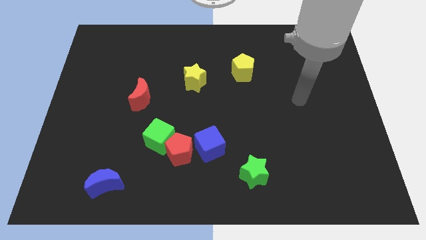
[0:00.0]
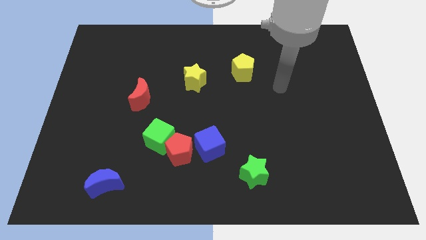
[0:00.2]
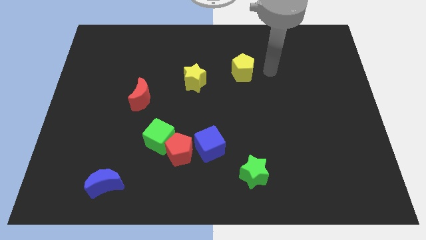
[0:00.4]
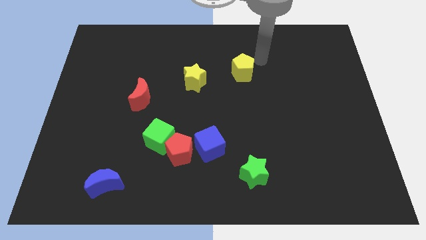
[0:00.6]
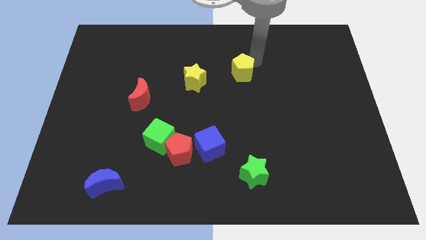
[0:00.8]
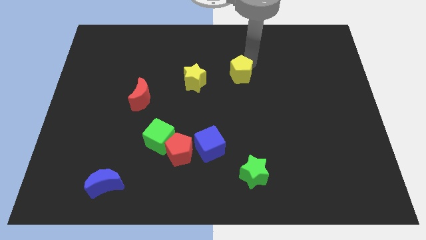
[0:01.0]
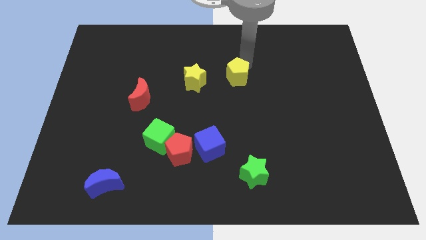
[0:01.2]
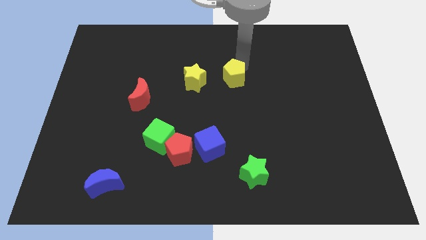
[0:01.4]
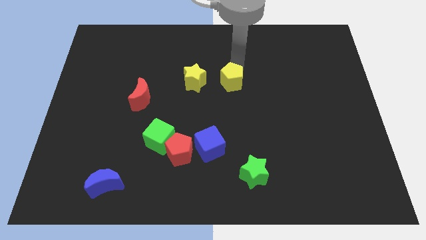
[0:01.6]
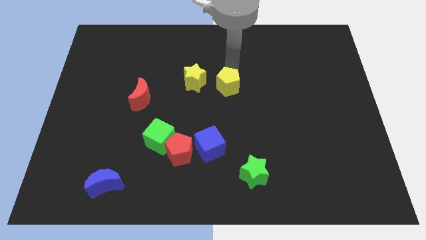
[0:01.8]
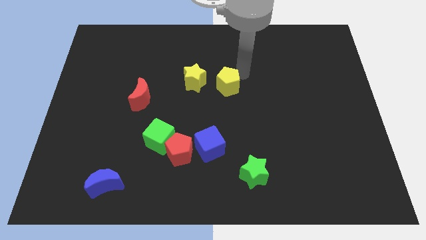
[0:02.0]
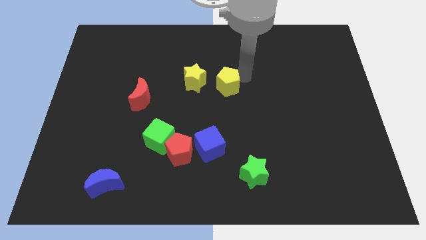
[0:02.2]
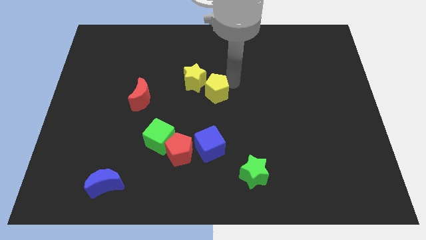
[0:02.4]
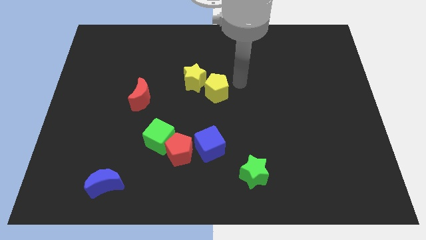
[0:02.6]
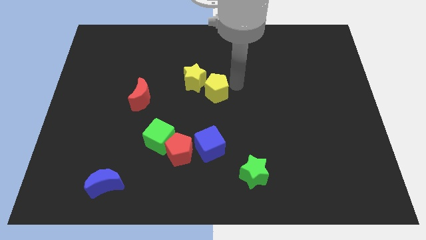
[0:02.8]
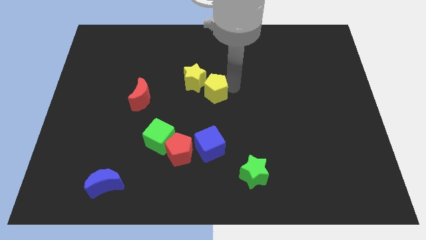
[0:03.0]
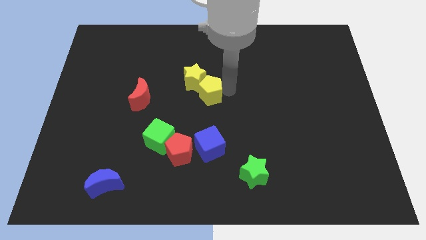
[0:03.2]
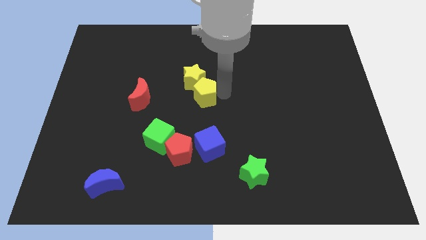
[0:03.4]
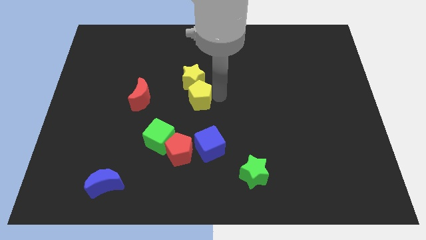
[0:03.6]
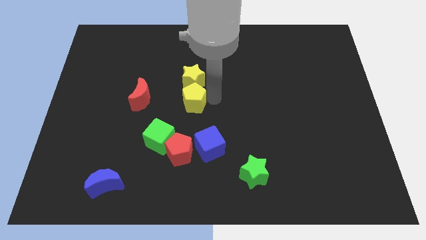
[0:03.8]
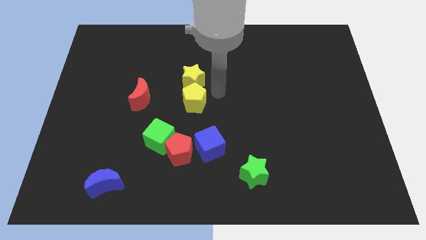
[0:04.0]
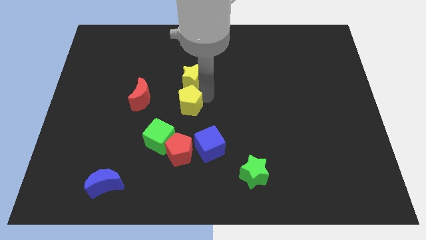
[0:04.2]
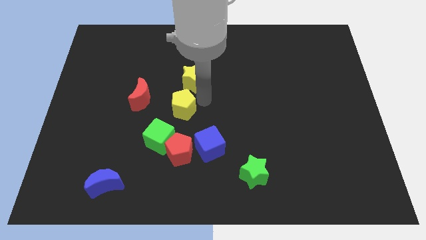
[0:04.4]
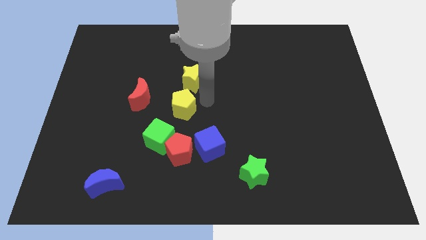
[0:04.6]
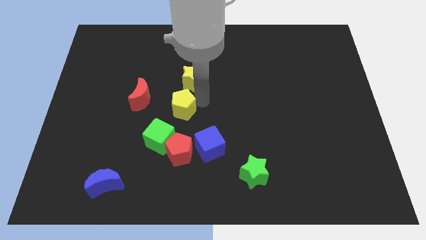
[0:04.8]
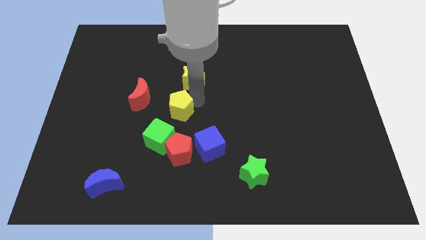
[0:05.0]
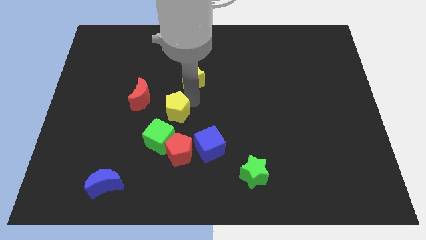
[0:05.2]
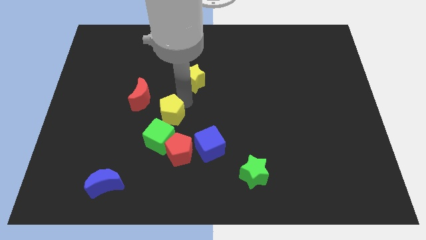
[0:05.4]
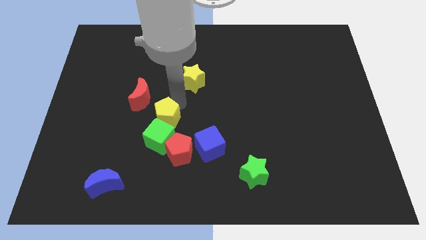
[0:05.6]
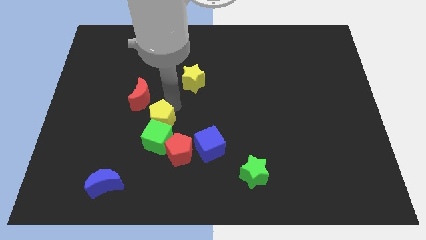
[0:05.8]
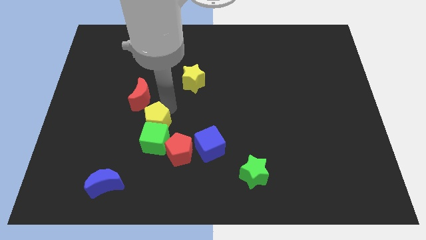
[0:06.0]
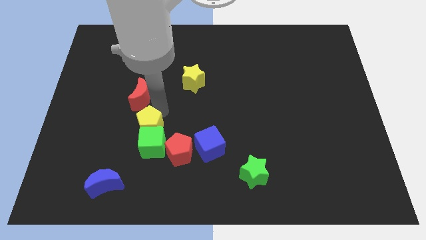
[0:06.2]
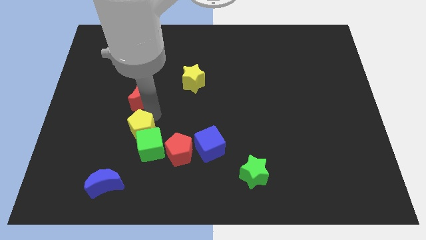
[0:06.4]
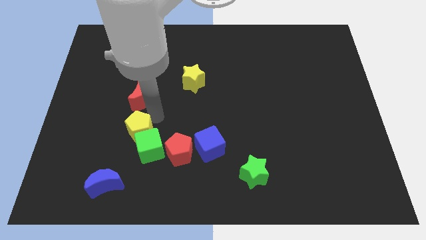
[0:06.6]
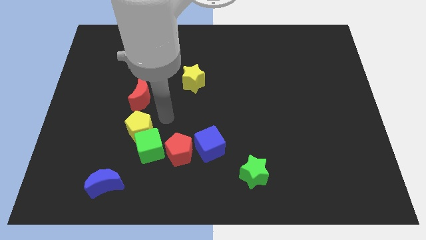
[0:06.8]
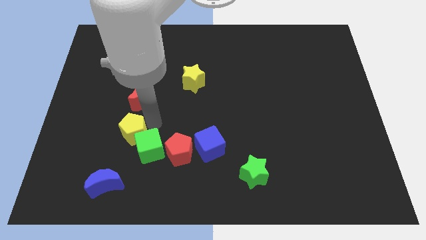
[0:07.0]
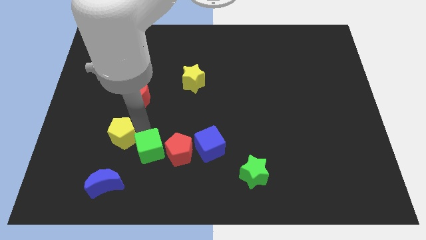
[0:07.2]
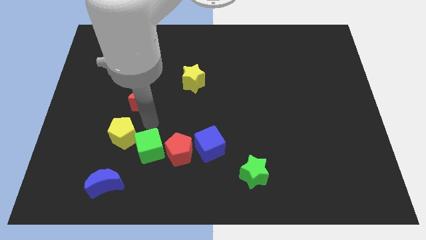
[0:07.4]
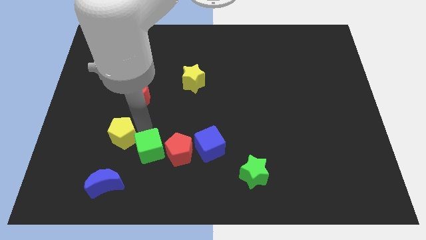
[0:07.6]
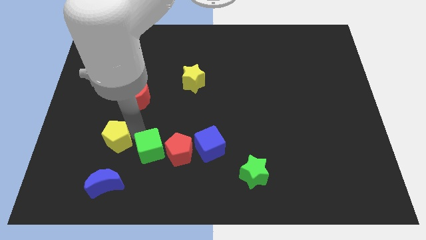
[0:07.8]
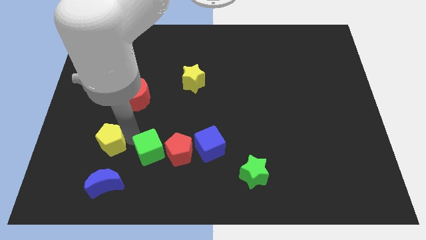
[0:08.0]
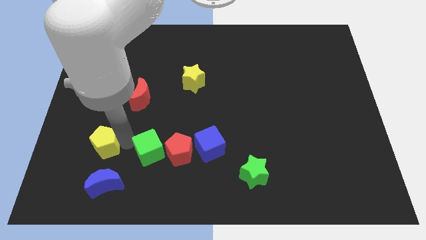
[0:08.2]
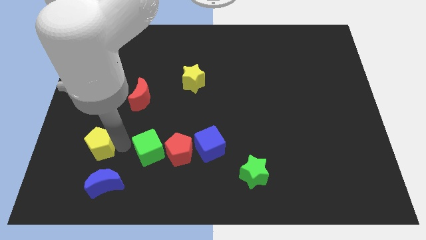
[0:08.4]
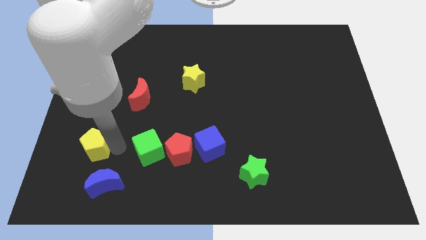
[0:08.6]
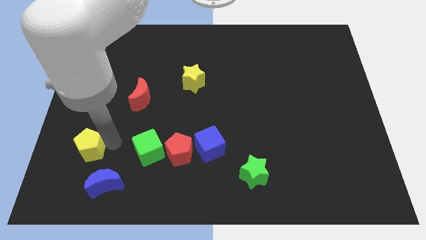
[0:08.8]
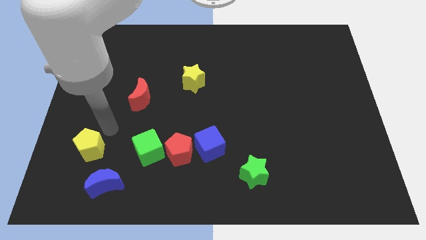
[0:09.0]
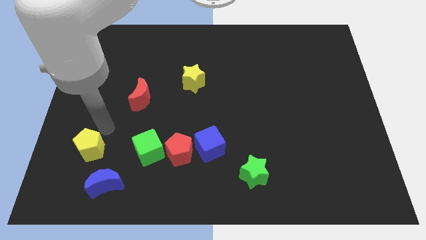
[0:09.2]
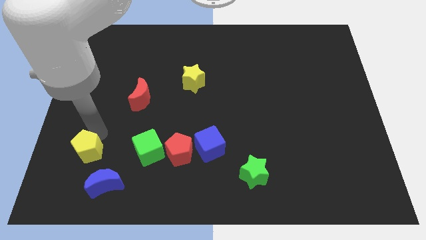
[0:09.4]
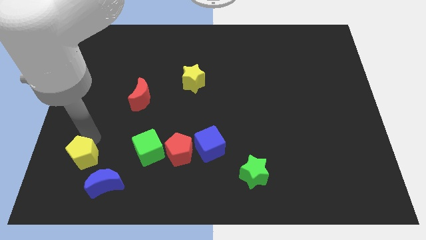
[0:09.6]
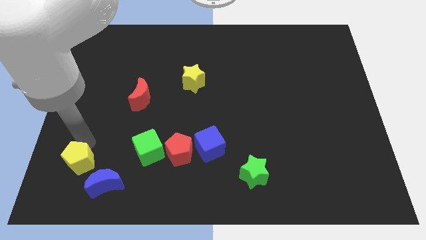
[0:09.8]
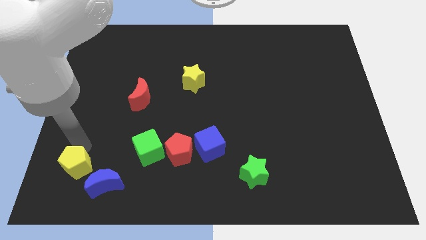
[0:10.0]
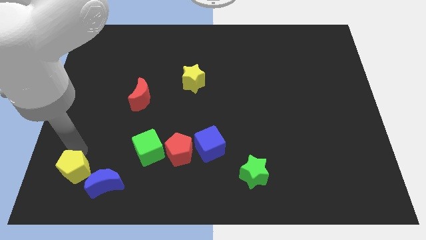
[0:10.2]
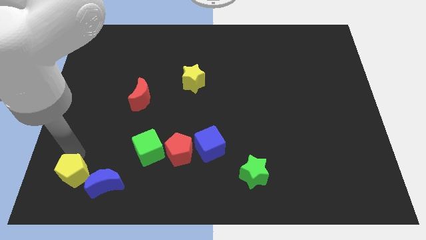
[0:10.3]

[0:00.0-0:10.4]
move the yellow pentagon to the bottom left of the board

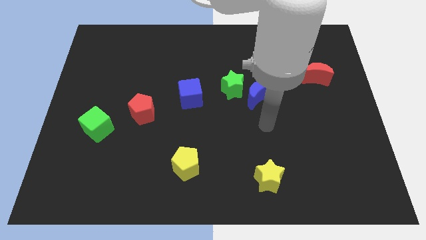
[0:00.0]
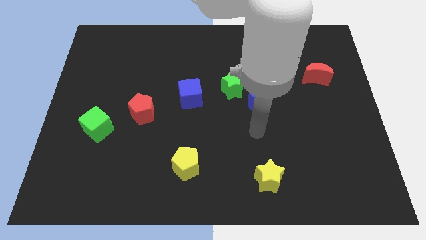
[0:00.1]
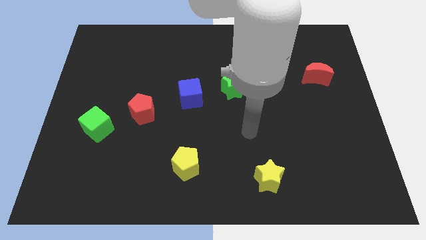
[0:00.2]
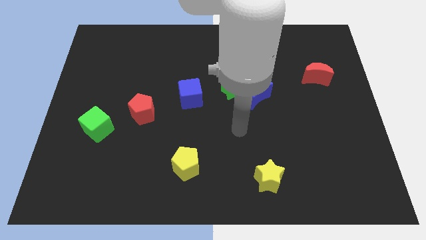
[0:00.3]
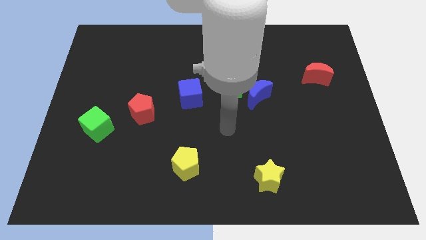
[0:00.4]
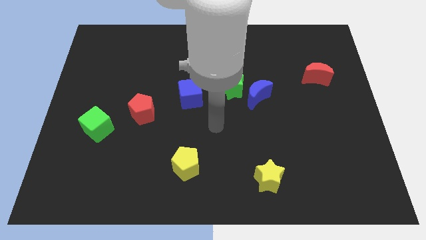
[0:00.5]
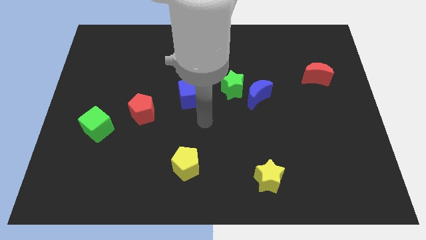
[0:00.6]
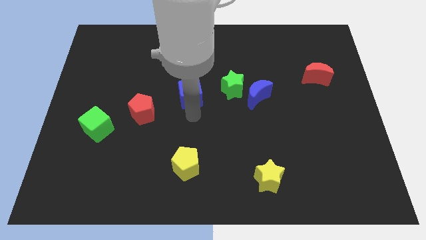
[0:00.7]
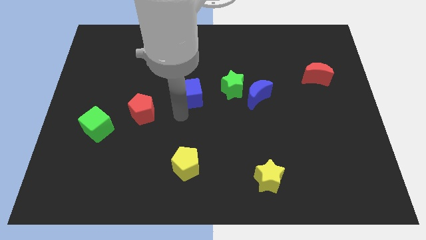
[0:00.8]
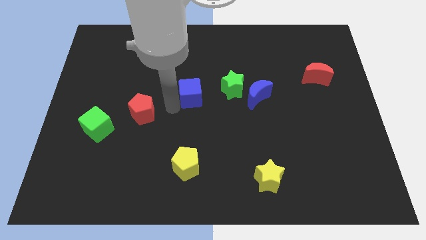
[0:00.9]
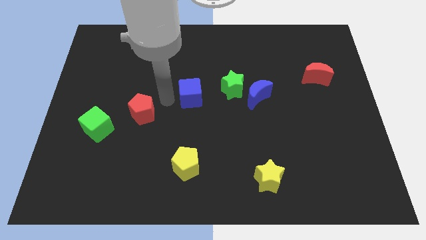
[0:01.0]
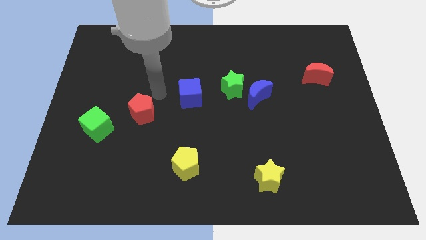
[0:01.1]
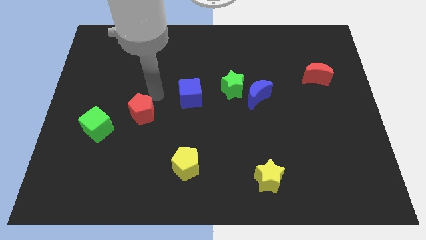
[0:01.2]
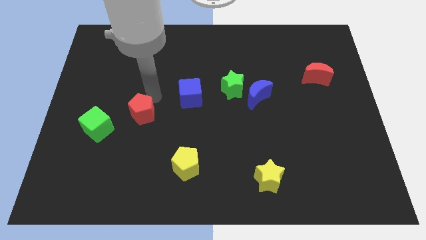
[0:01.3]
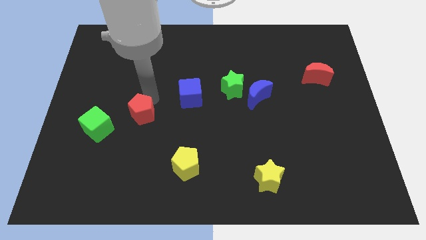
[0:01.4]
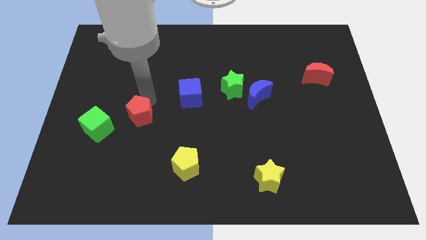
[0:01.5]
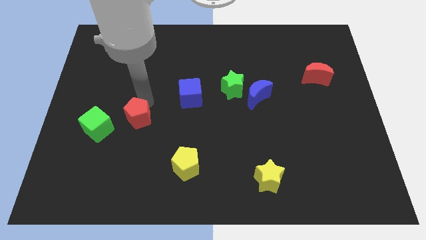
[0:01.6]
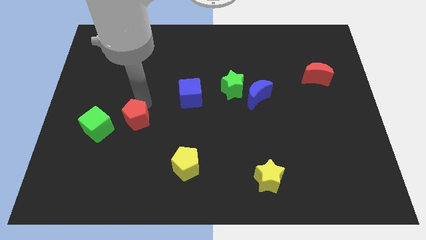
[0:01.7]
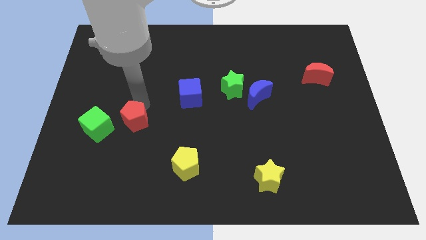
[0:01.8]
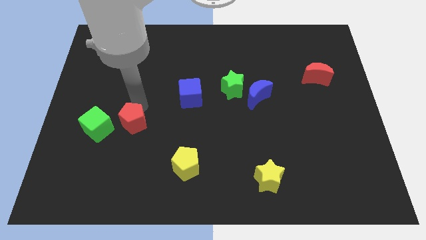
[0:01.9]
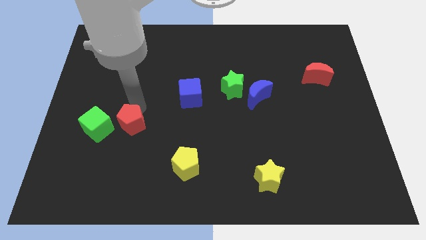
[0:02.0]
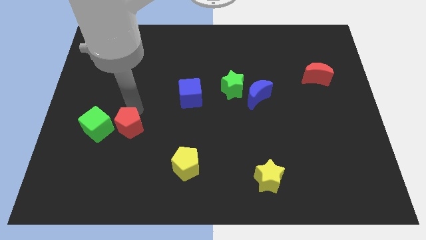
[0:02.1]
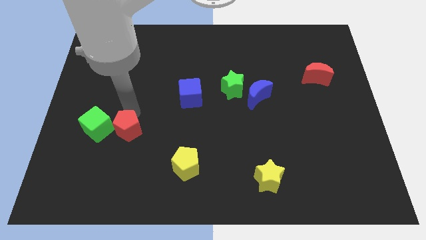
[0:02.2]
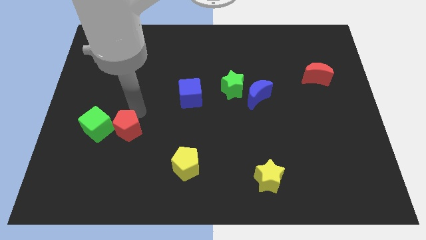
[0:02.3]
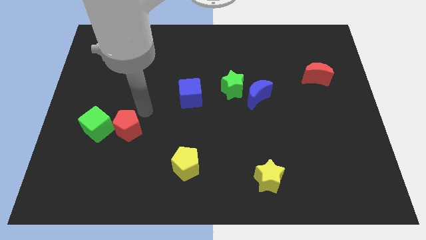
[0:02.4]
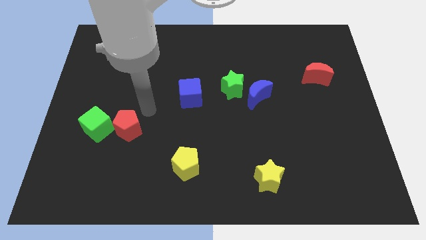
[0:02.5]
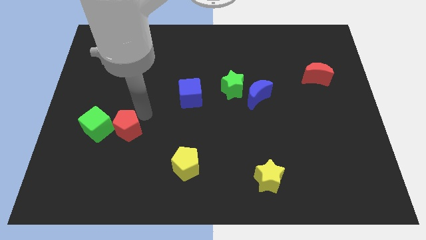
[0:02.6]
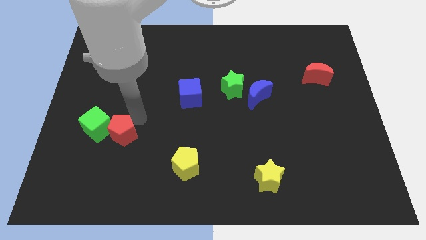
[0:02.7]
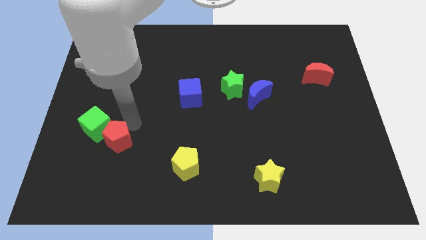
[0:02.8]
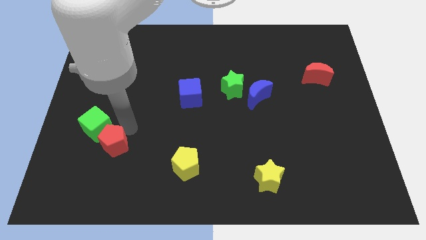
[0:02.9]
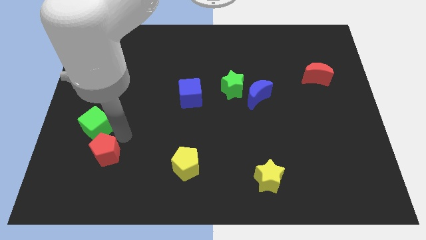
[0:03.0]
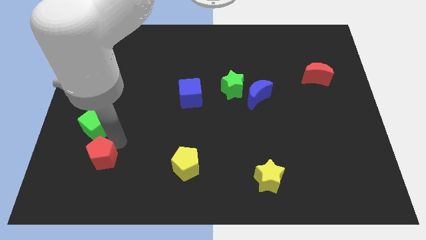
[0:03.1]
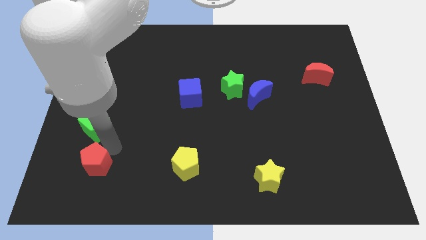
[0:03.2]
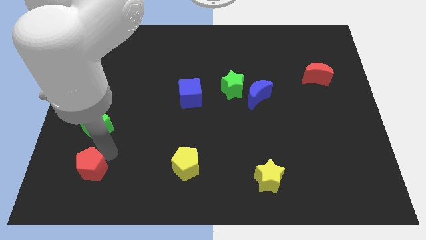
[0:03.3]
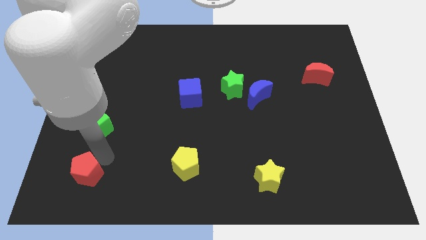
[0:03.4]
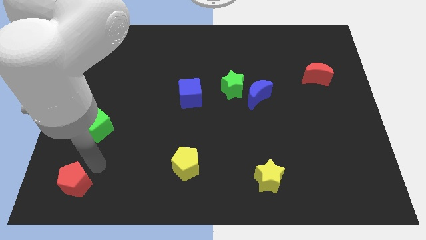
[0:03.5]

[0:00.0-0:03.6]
move the red pentagon to the lower left corner
